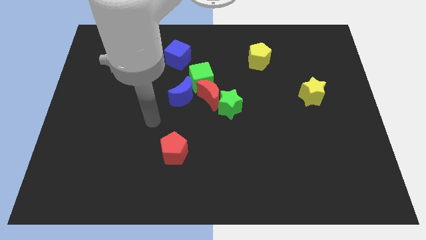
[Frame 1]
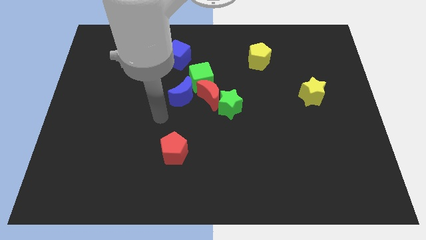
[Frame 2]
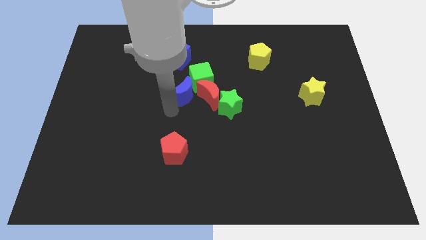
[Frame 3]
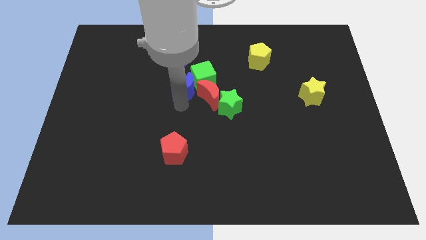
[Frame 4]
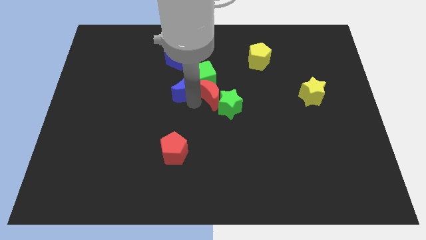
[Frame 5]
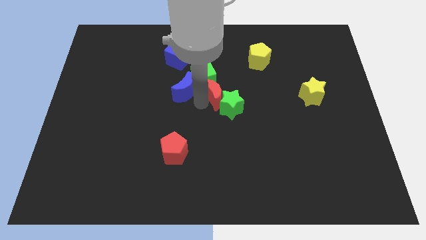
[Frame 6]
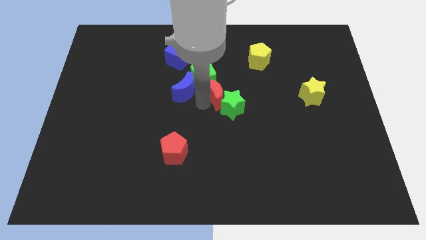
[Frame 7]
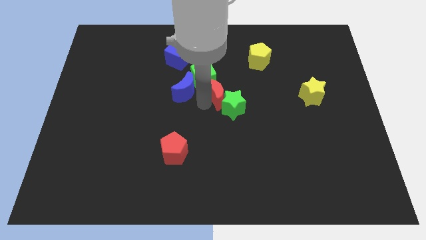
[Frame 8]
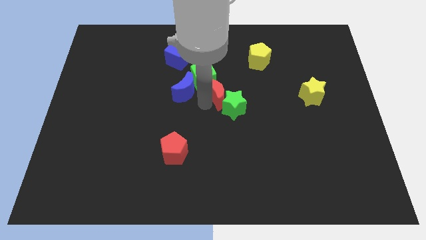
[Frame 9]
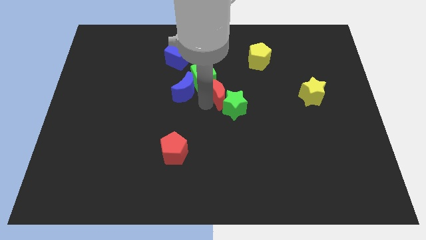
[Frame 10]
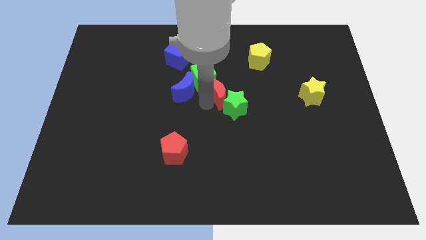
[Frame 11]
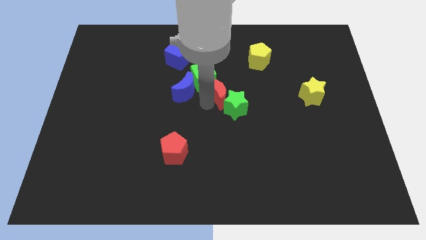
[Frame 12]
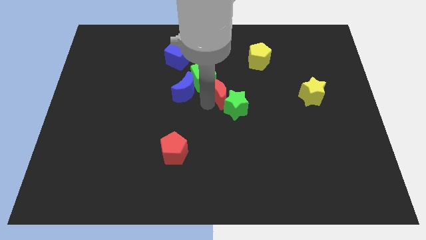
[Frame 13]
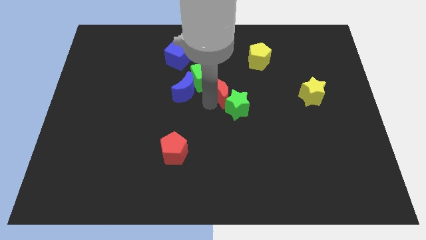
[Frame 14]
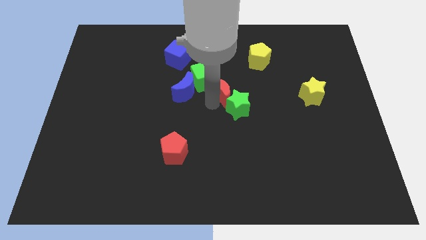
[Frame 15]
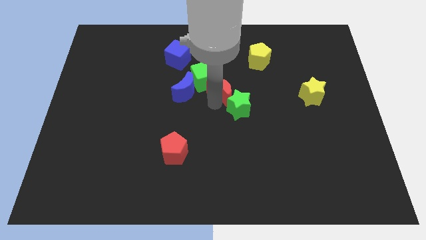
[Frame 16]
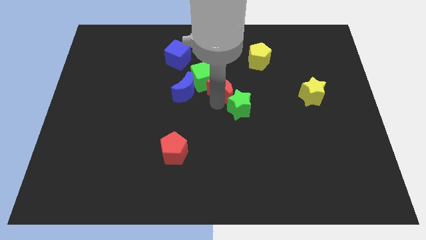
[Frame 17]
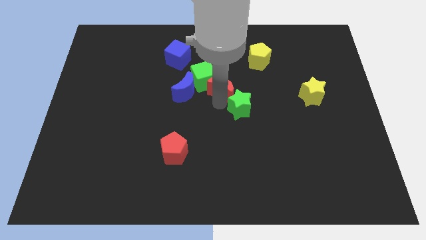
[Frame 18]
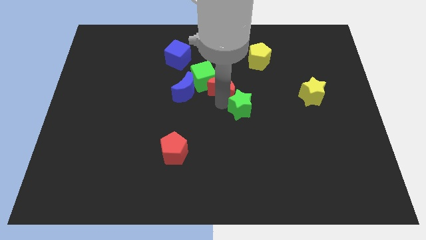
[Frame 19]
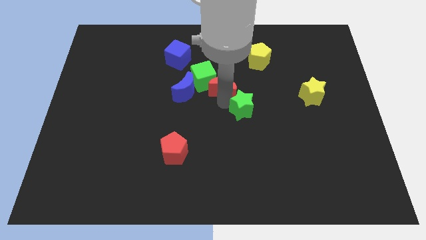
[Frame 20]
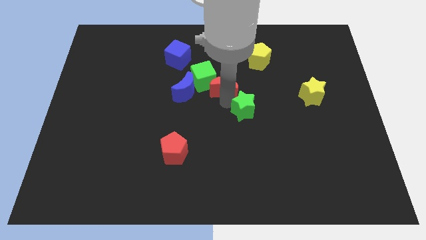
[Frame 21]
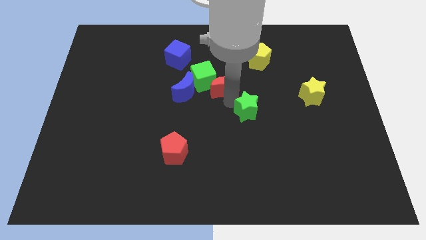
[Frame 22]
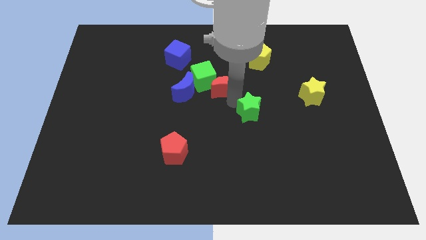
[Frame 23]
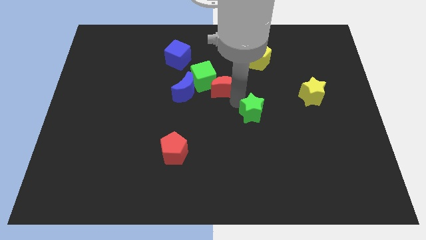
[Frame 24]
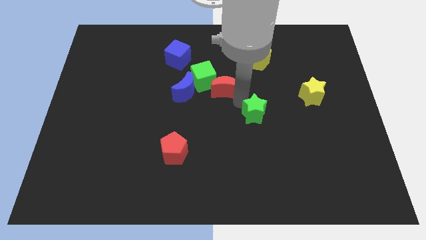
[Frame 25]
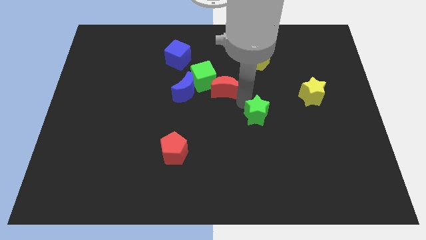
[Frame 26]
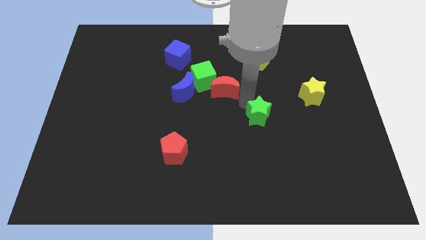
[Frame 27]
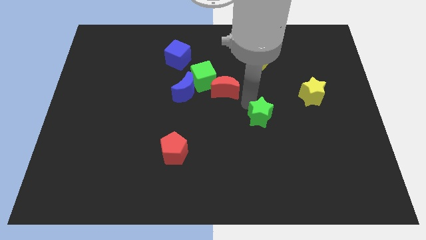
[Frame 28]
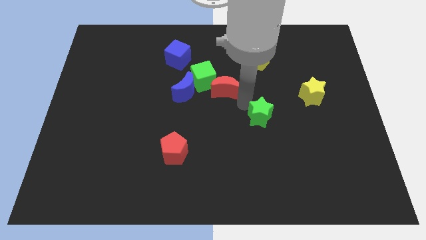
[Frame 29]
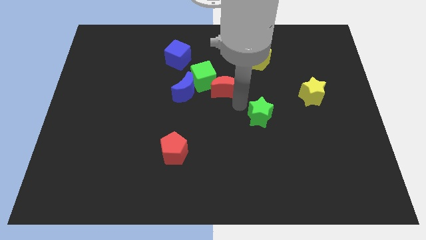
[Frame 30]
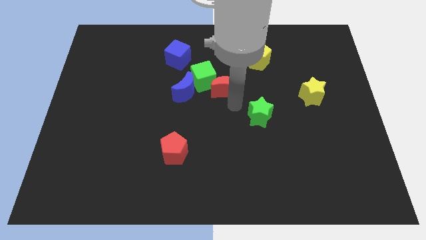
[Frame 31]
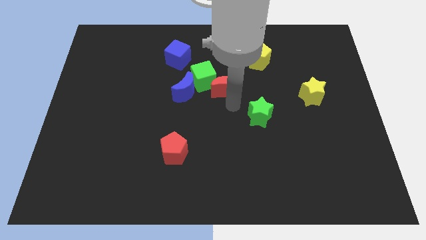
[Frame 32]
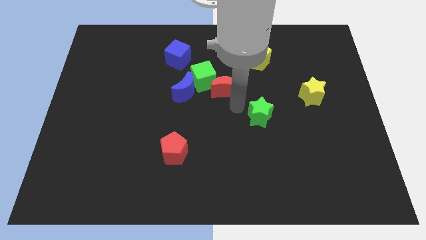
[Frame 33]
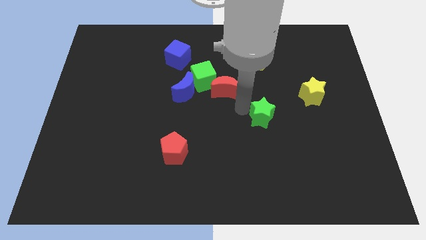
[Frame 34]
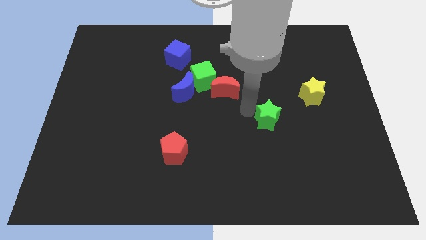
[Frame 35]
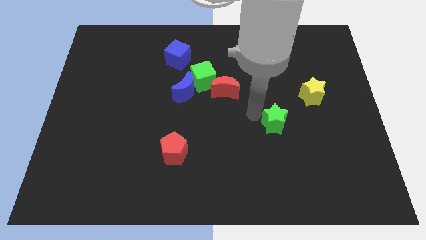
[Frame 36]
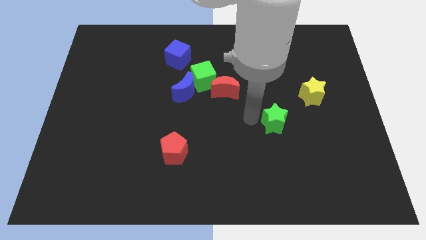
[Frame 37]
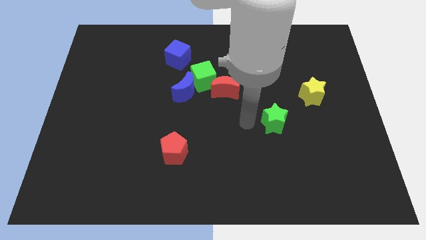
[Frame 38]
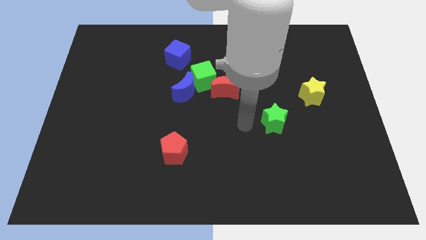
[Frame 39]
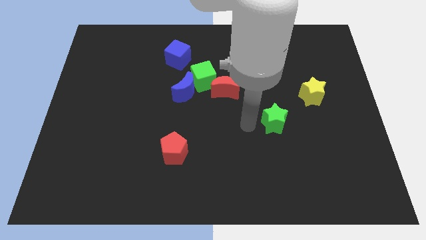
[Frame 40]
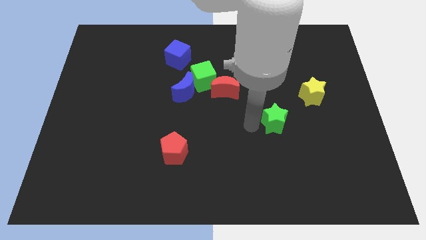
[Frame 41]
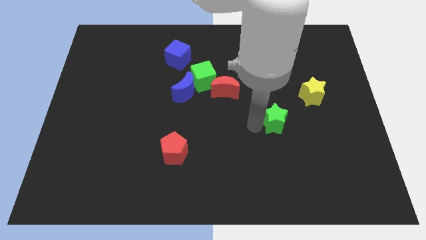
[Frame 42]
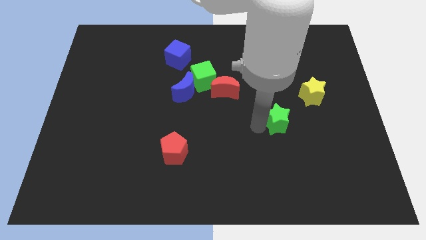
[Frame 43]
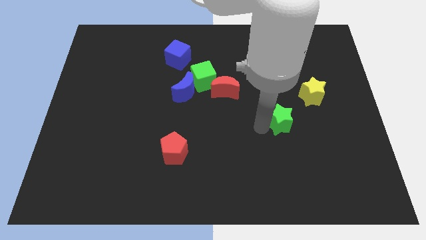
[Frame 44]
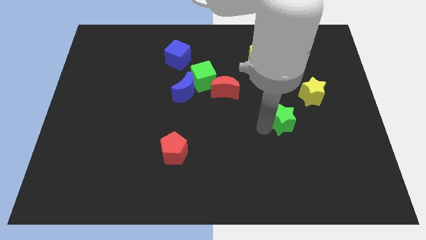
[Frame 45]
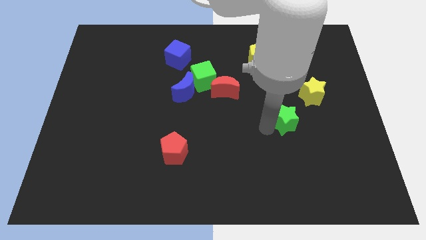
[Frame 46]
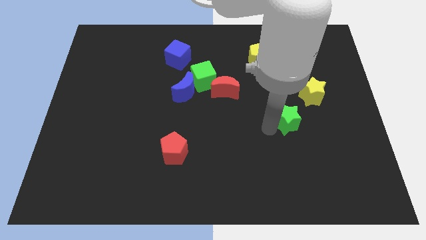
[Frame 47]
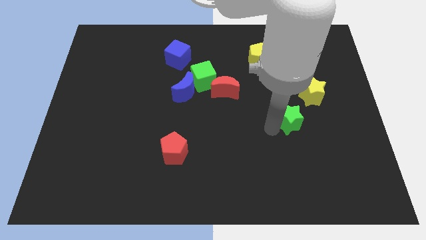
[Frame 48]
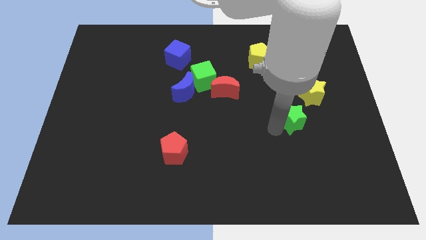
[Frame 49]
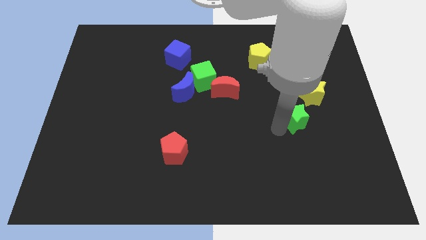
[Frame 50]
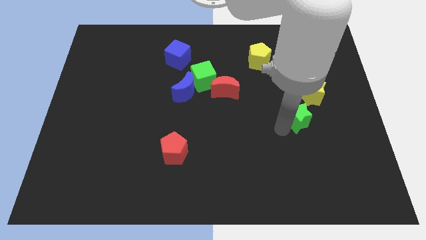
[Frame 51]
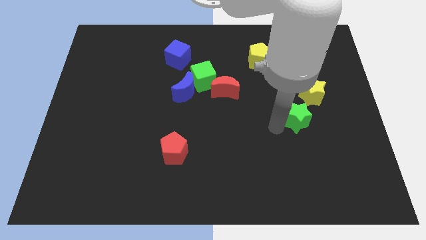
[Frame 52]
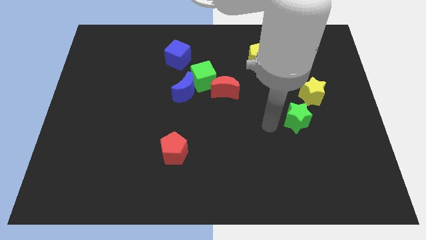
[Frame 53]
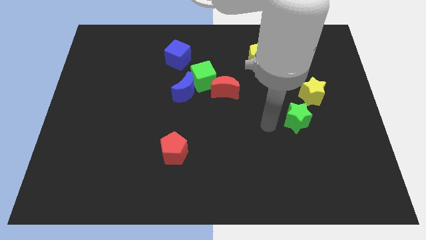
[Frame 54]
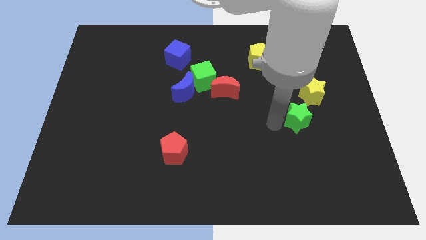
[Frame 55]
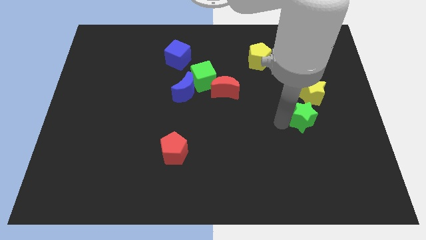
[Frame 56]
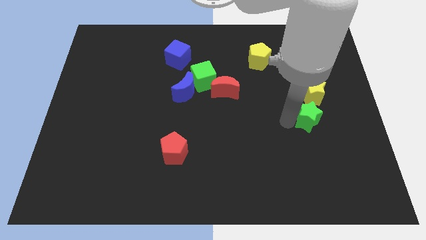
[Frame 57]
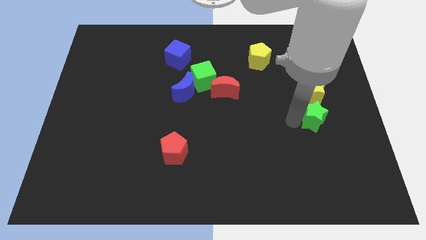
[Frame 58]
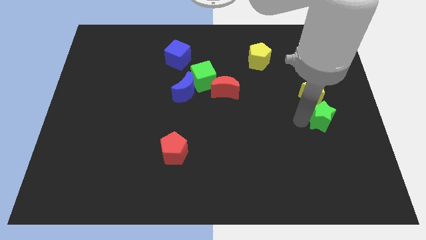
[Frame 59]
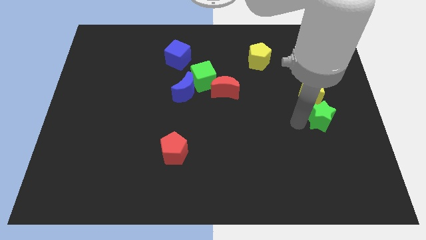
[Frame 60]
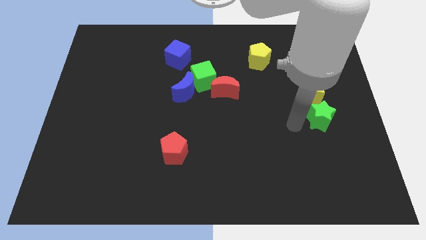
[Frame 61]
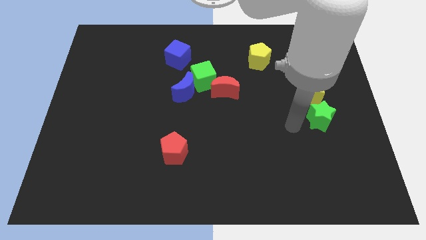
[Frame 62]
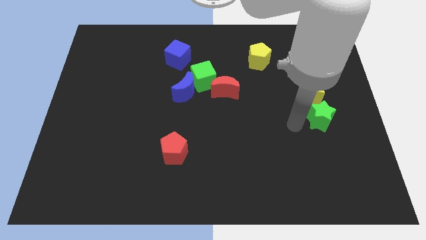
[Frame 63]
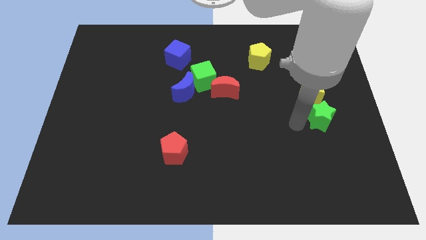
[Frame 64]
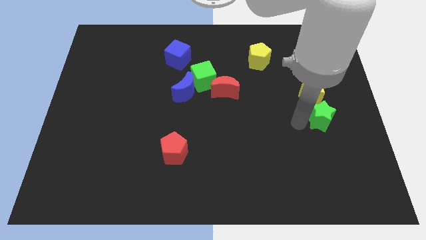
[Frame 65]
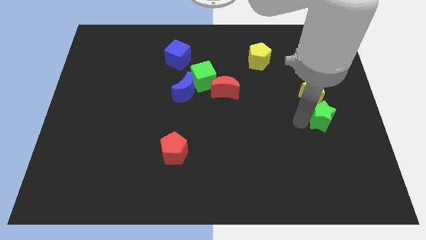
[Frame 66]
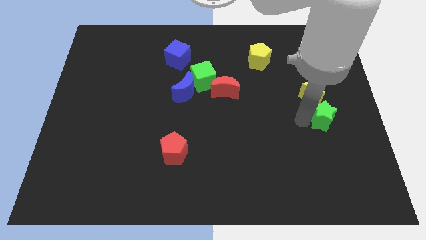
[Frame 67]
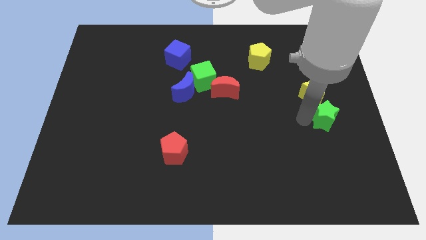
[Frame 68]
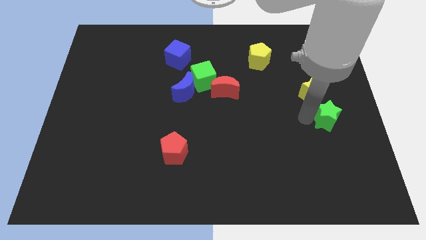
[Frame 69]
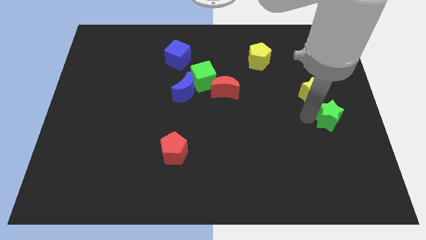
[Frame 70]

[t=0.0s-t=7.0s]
move the green star to the right side of the board

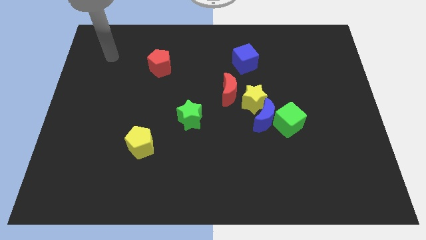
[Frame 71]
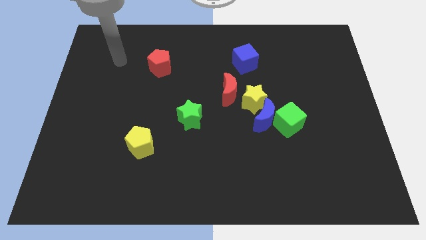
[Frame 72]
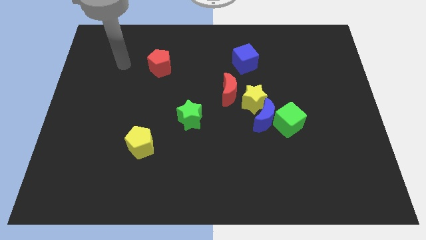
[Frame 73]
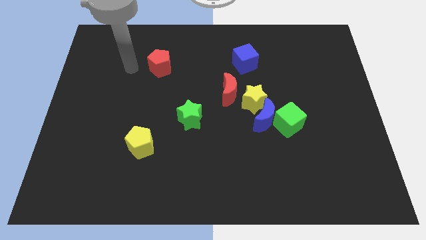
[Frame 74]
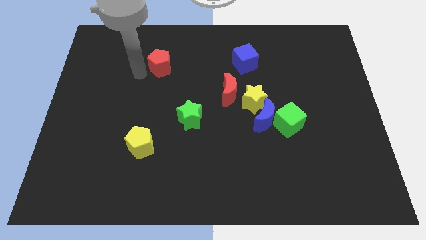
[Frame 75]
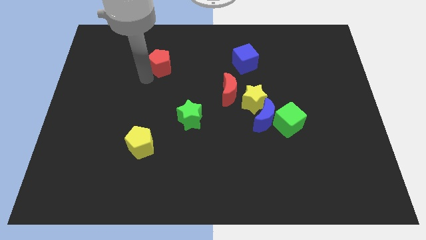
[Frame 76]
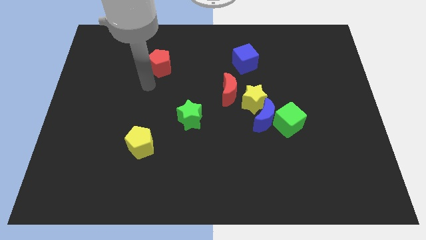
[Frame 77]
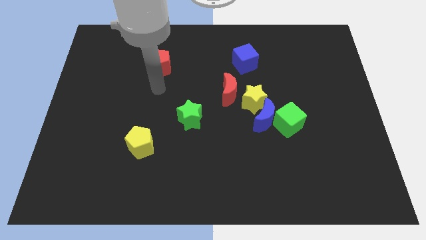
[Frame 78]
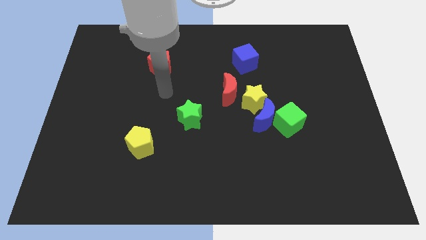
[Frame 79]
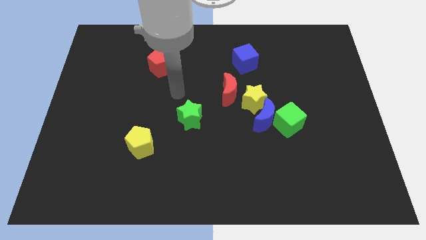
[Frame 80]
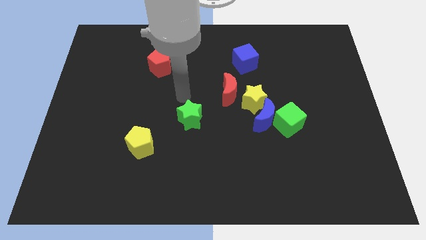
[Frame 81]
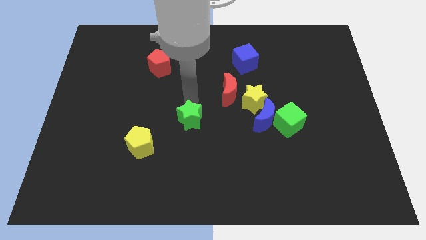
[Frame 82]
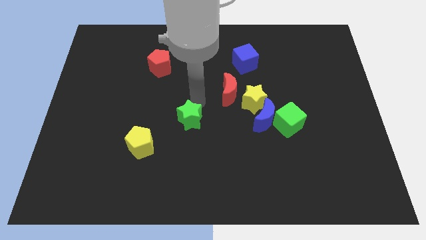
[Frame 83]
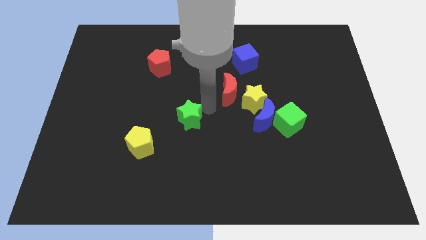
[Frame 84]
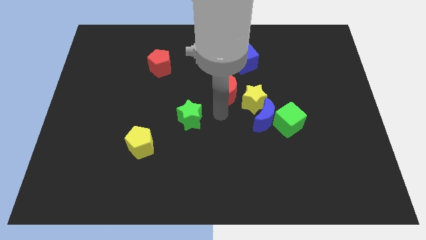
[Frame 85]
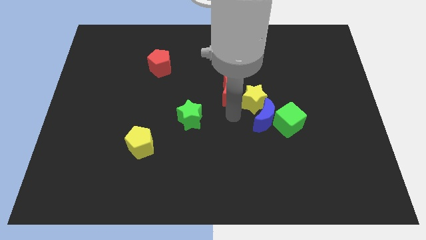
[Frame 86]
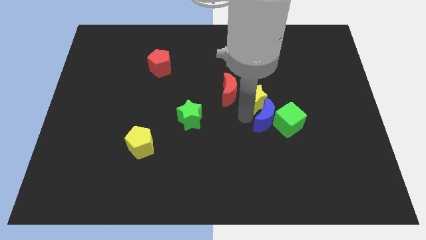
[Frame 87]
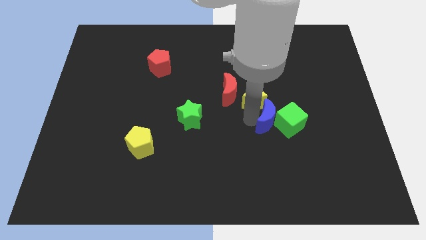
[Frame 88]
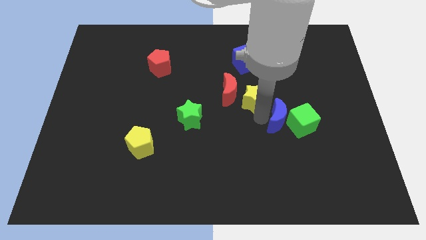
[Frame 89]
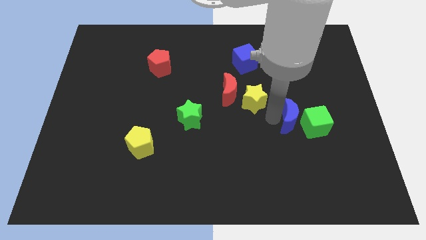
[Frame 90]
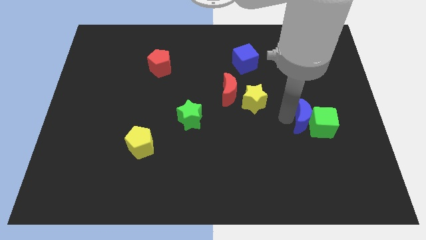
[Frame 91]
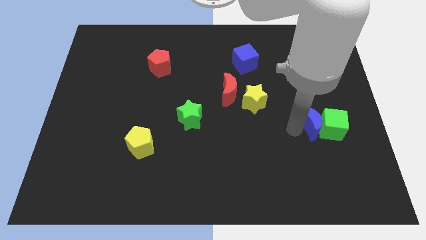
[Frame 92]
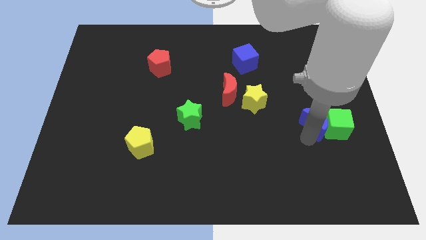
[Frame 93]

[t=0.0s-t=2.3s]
put the green cube to the right side
